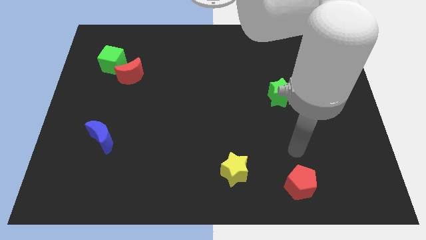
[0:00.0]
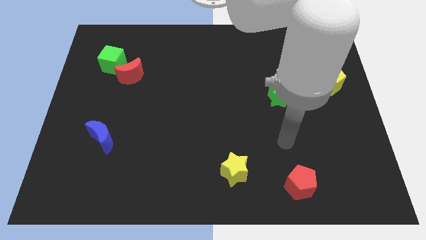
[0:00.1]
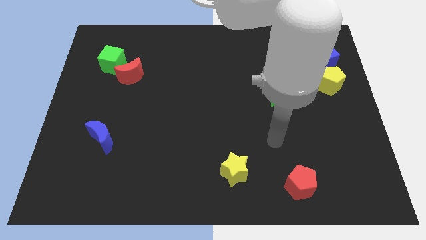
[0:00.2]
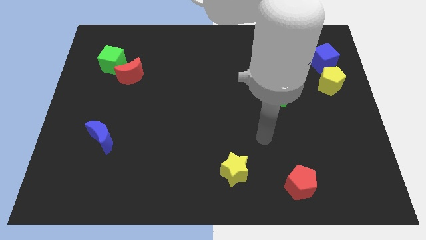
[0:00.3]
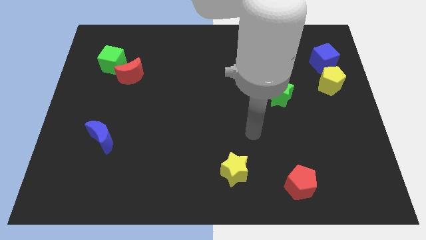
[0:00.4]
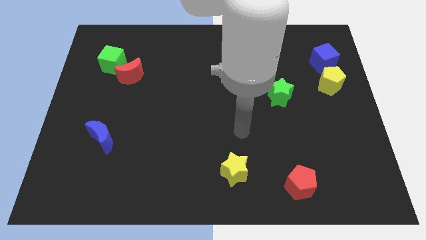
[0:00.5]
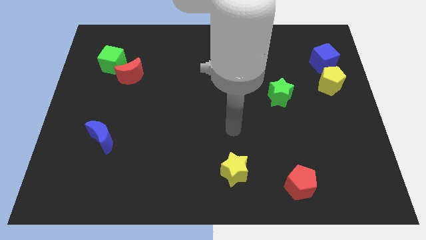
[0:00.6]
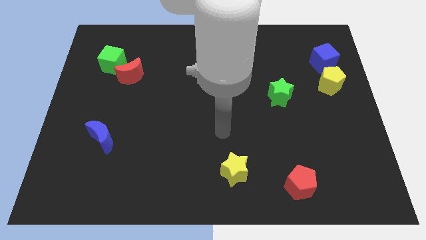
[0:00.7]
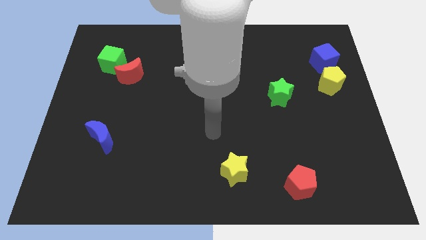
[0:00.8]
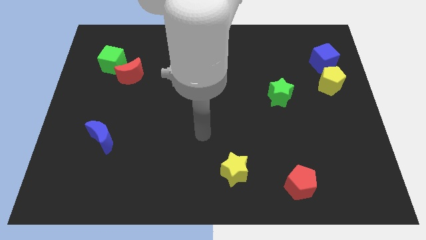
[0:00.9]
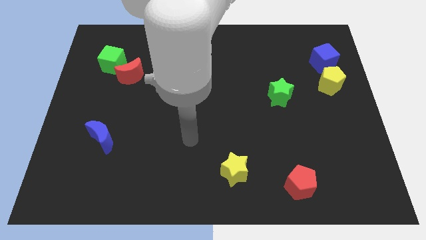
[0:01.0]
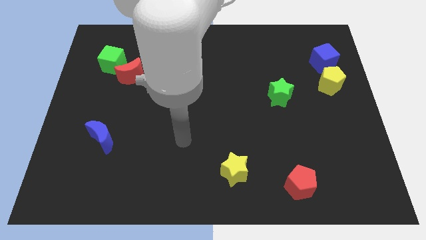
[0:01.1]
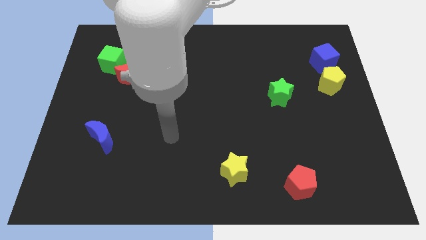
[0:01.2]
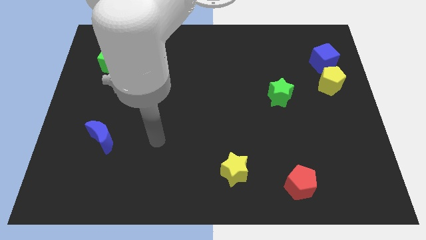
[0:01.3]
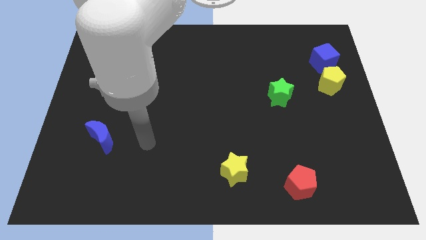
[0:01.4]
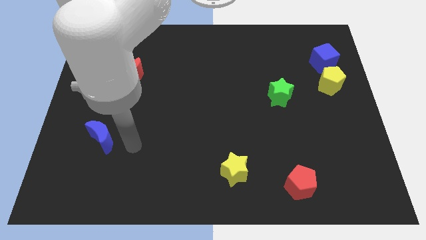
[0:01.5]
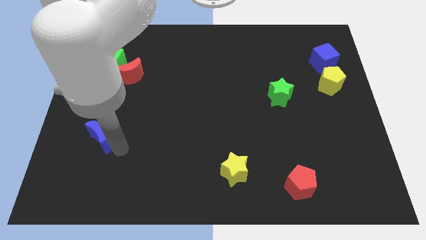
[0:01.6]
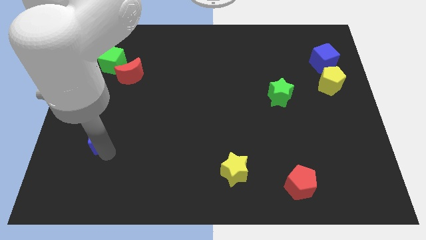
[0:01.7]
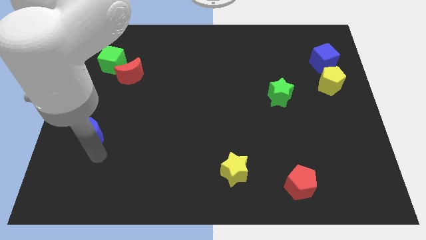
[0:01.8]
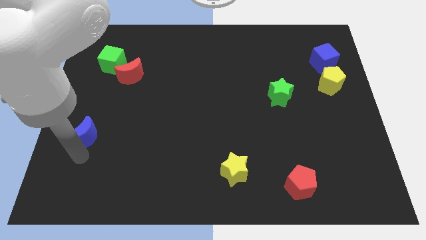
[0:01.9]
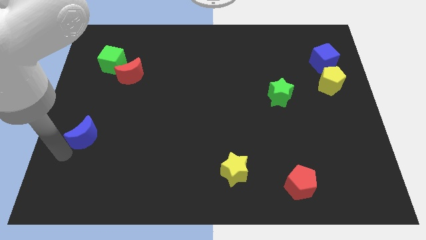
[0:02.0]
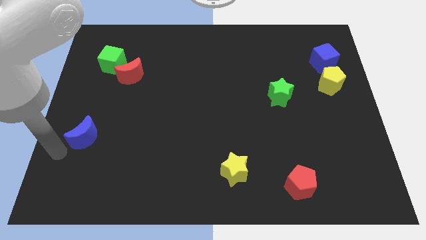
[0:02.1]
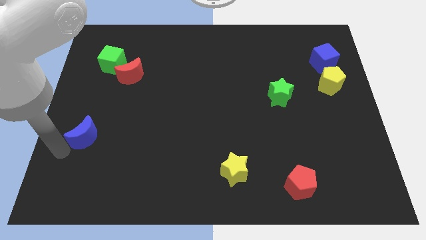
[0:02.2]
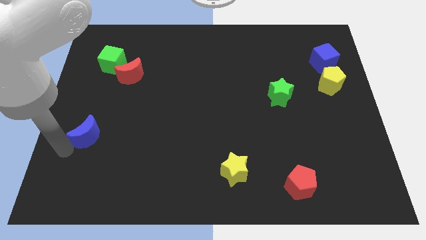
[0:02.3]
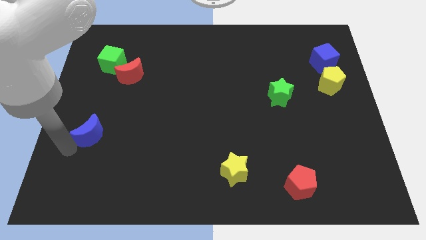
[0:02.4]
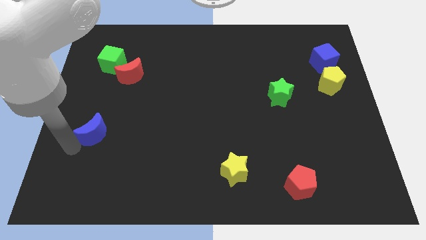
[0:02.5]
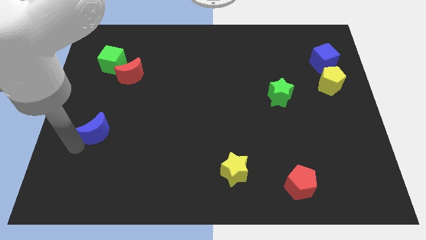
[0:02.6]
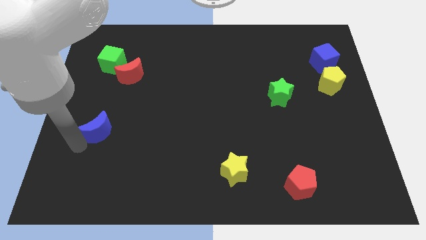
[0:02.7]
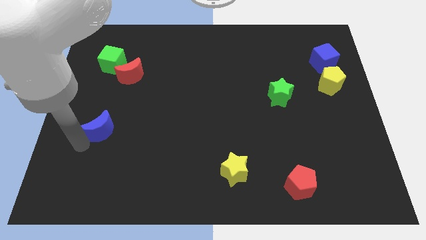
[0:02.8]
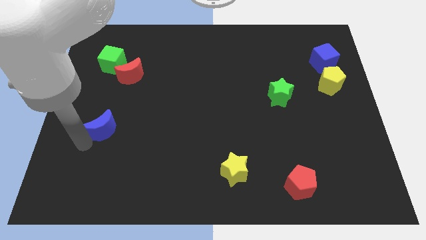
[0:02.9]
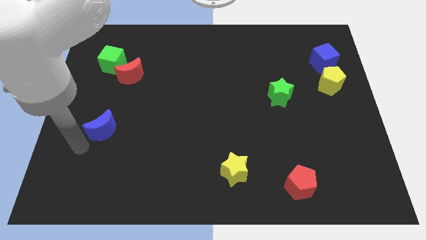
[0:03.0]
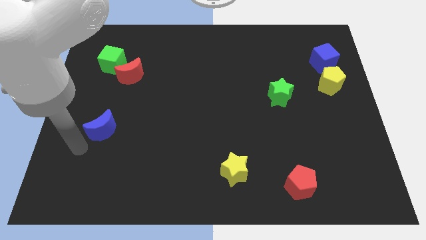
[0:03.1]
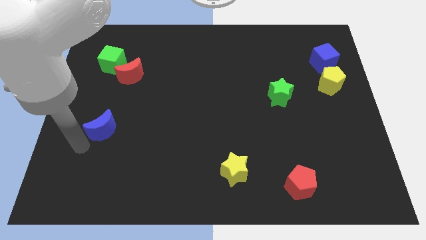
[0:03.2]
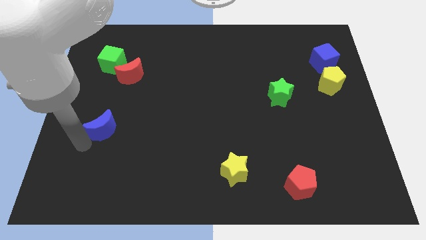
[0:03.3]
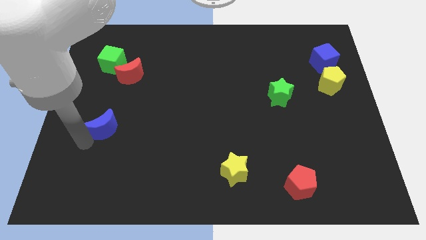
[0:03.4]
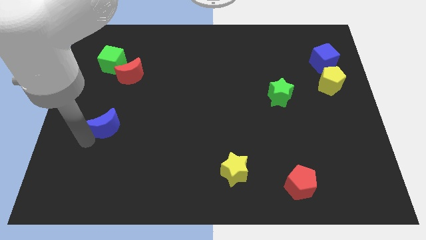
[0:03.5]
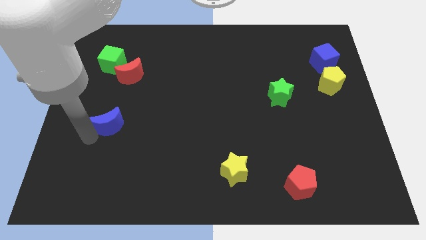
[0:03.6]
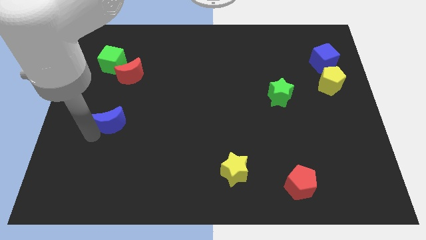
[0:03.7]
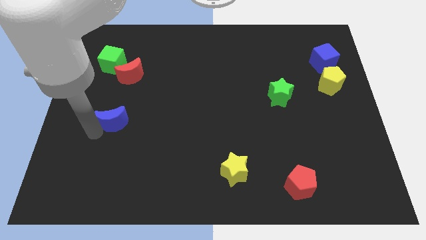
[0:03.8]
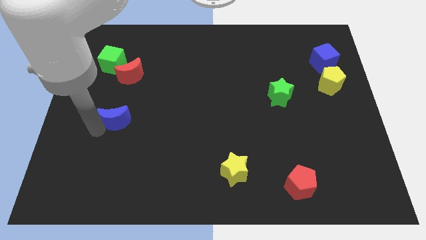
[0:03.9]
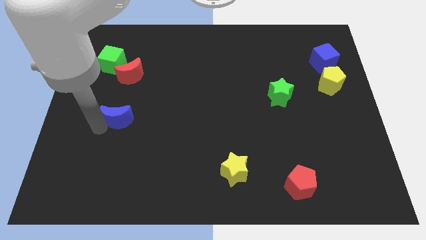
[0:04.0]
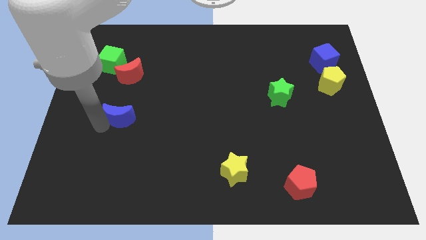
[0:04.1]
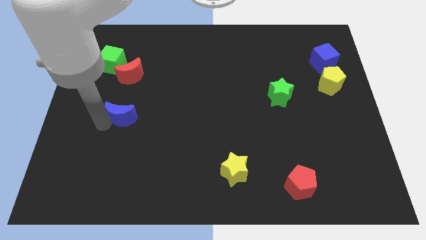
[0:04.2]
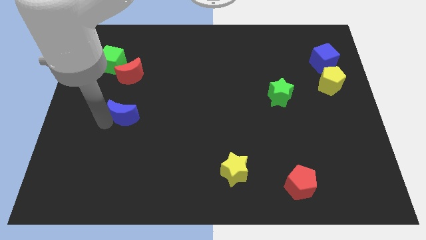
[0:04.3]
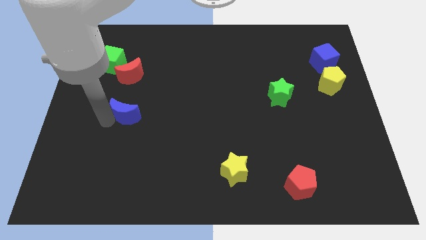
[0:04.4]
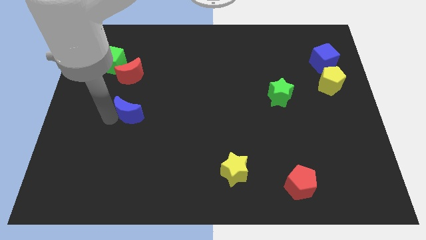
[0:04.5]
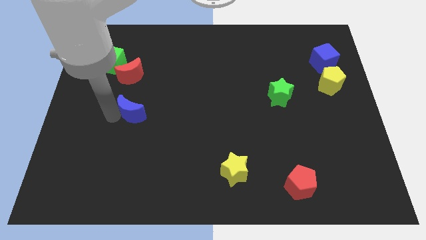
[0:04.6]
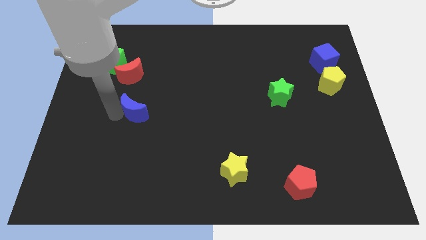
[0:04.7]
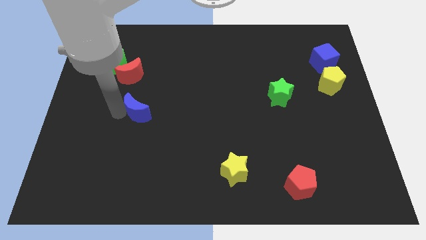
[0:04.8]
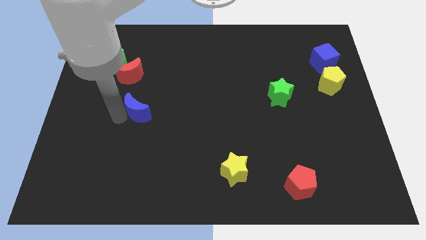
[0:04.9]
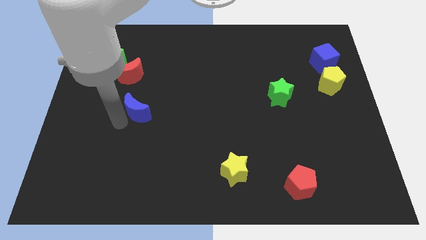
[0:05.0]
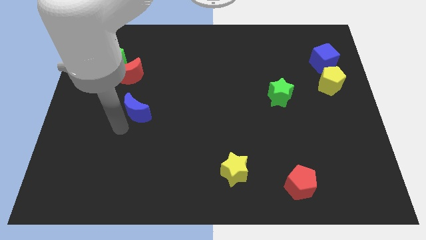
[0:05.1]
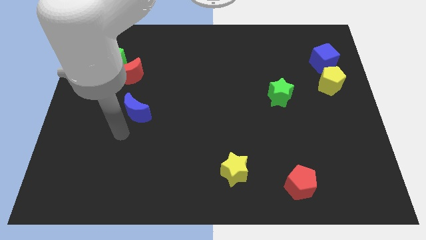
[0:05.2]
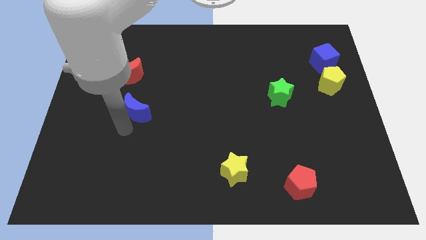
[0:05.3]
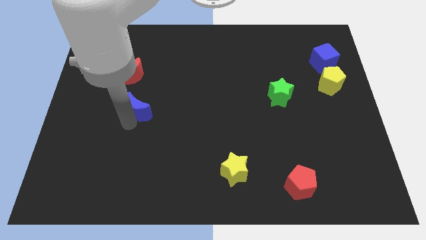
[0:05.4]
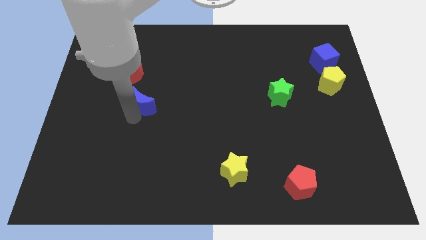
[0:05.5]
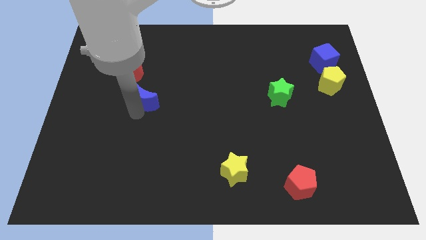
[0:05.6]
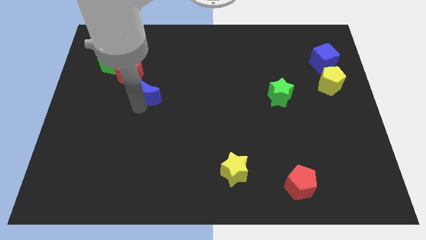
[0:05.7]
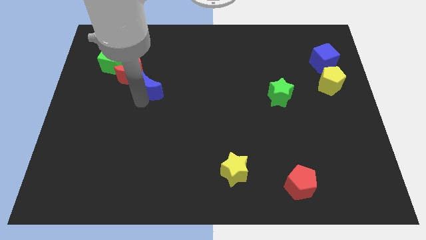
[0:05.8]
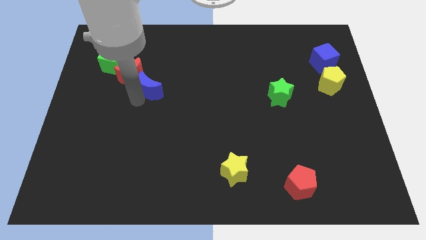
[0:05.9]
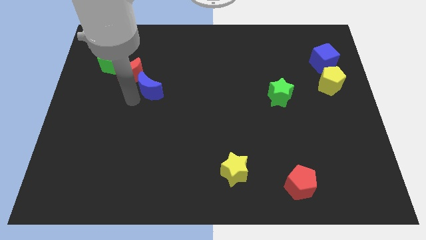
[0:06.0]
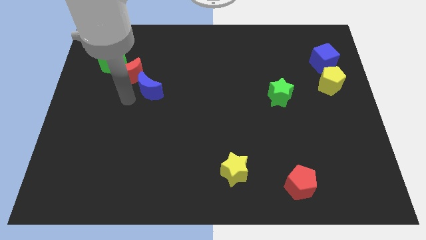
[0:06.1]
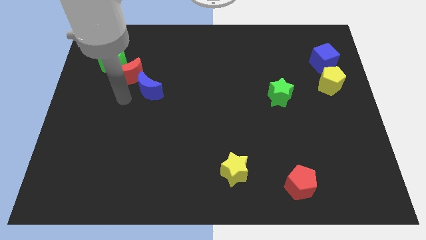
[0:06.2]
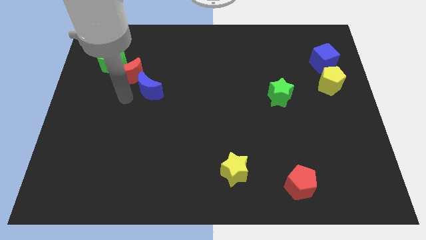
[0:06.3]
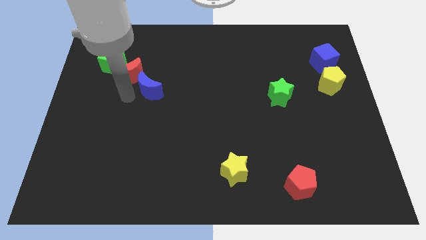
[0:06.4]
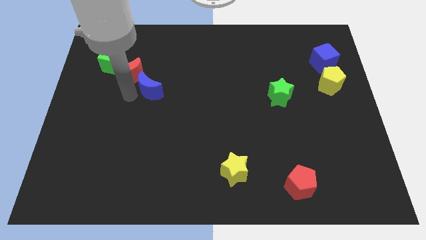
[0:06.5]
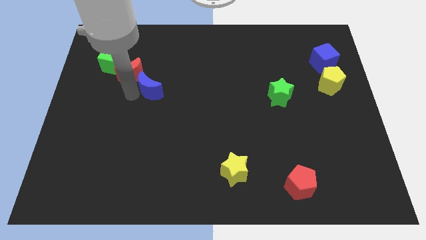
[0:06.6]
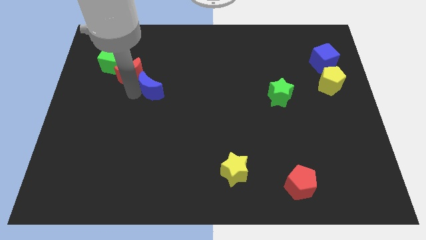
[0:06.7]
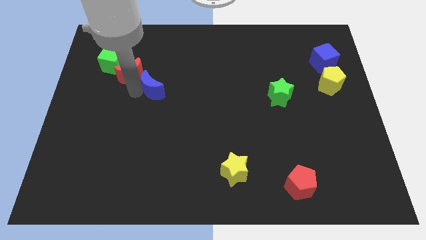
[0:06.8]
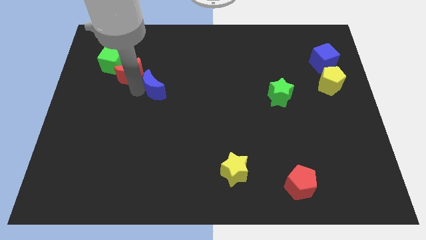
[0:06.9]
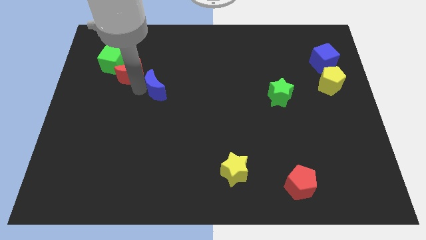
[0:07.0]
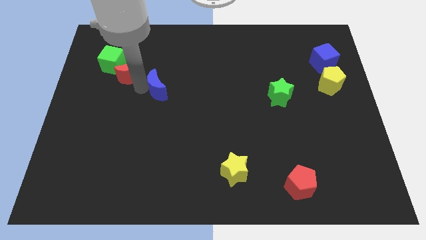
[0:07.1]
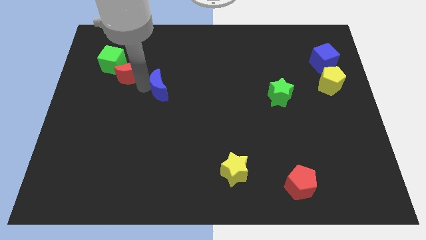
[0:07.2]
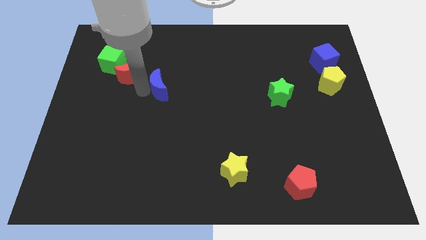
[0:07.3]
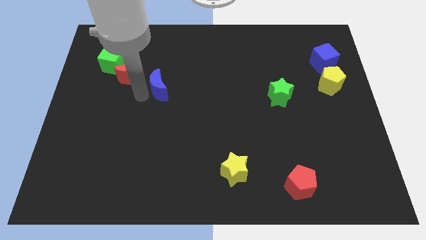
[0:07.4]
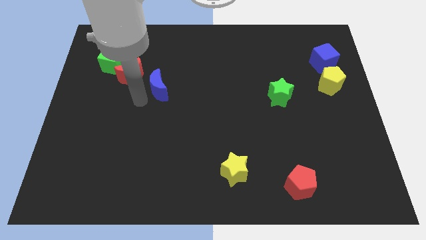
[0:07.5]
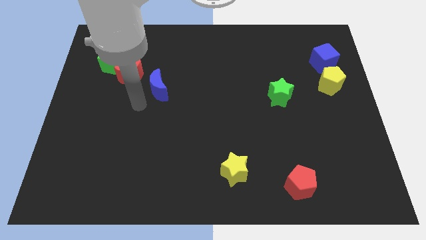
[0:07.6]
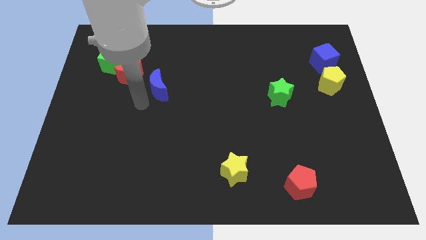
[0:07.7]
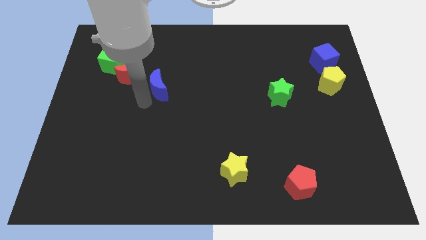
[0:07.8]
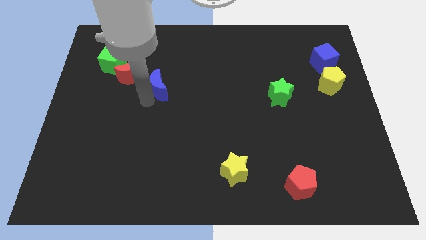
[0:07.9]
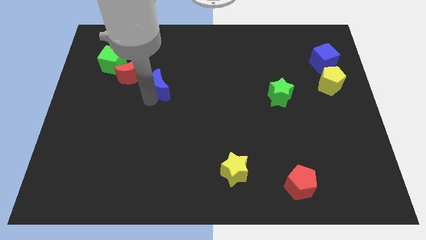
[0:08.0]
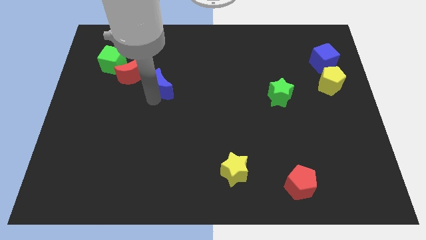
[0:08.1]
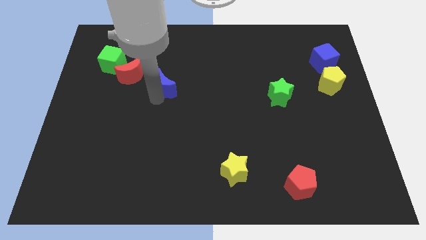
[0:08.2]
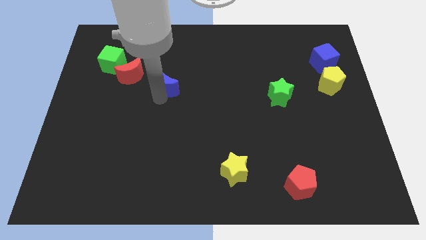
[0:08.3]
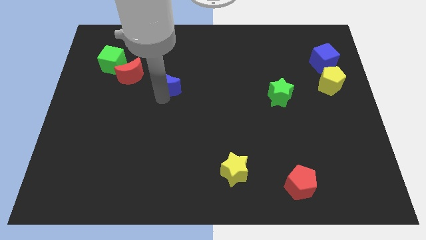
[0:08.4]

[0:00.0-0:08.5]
slide the blue moon up and to the right
